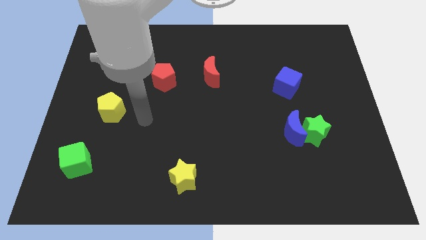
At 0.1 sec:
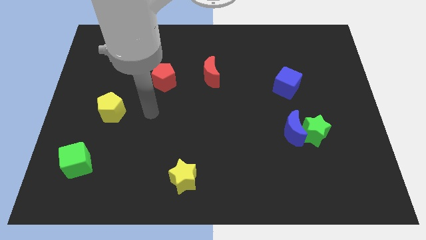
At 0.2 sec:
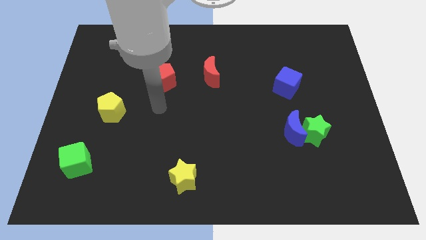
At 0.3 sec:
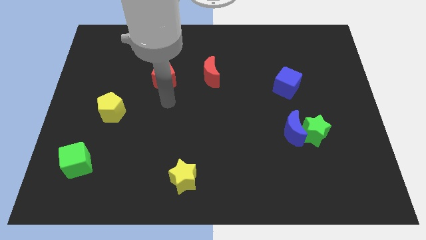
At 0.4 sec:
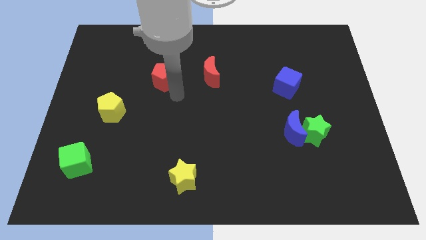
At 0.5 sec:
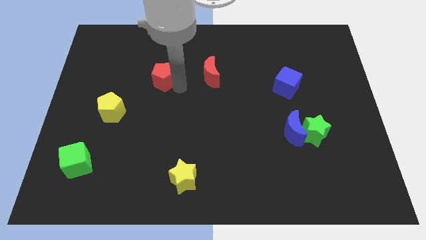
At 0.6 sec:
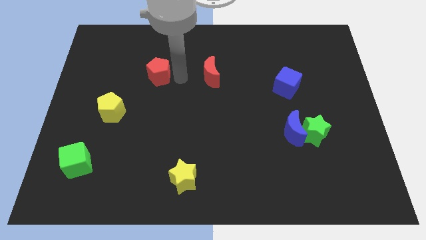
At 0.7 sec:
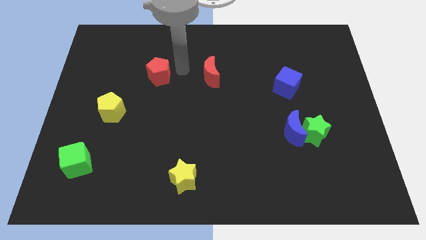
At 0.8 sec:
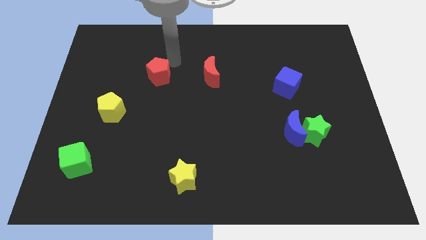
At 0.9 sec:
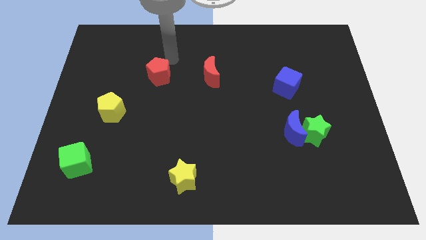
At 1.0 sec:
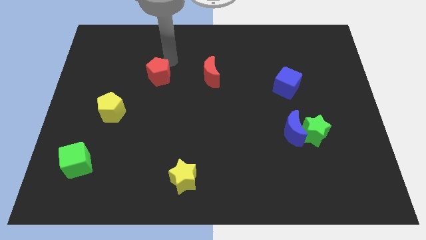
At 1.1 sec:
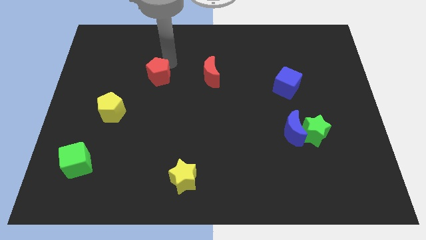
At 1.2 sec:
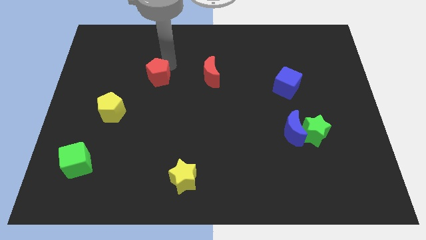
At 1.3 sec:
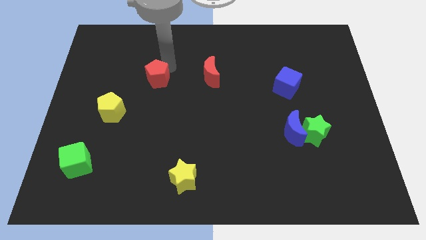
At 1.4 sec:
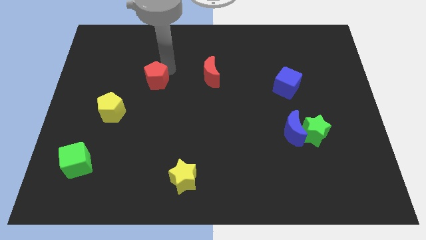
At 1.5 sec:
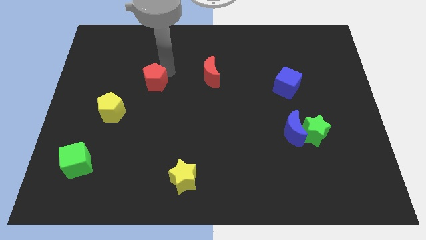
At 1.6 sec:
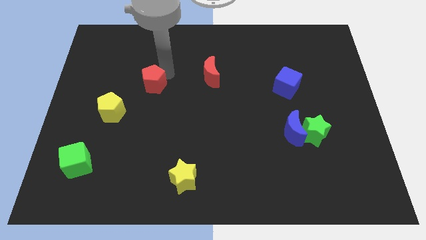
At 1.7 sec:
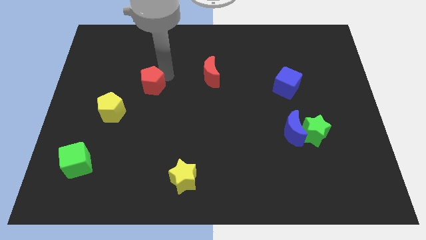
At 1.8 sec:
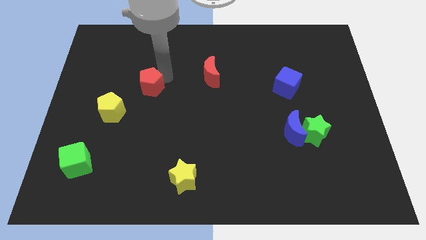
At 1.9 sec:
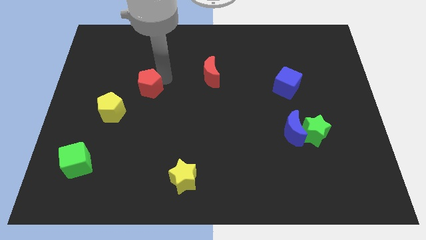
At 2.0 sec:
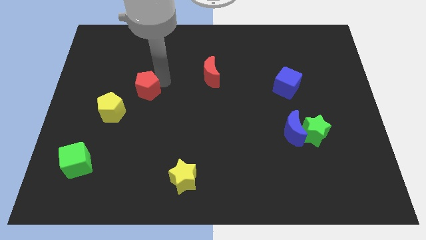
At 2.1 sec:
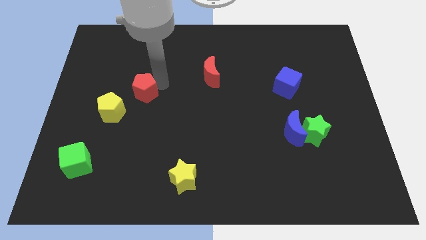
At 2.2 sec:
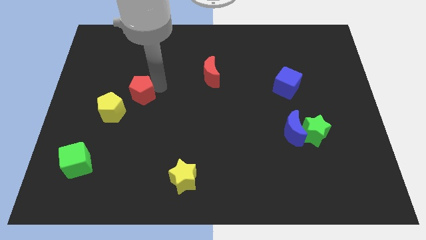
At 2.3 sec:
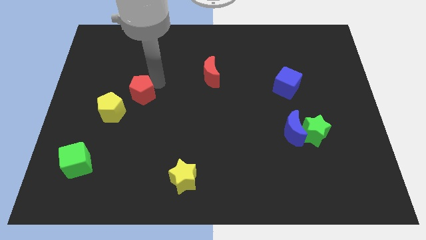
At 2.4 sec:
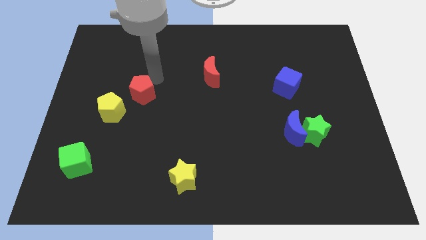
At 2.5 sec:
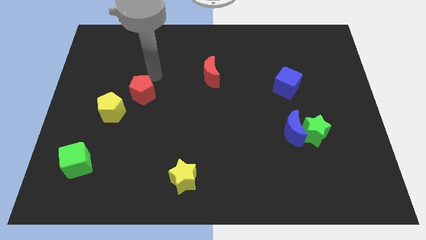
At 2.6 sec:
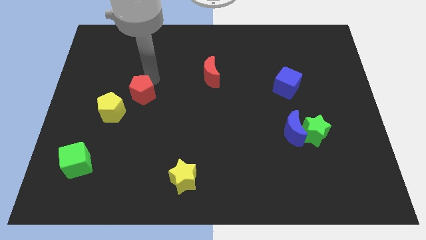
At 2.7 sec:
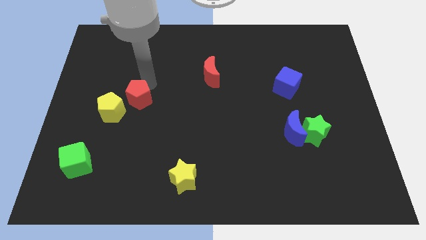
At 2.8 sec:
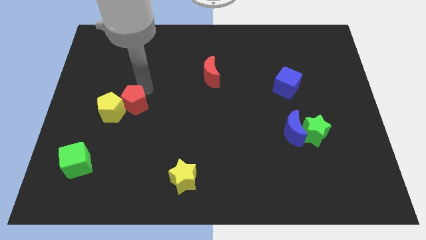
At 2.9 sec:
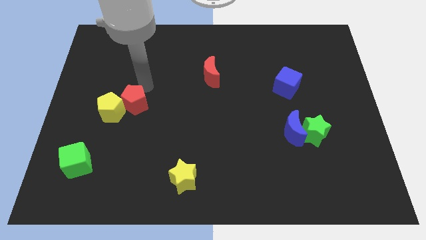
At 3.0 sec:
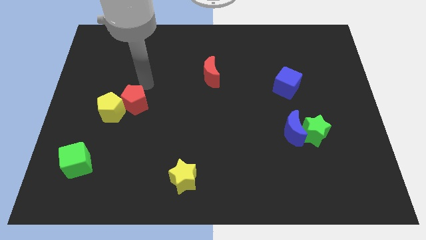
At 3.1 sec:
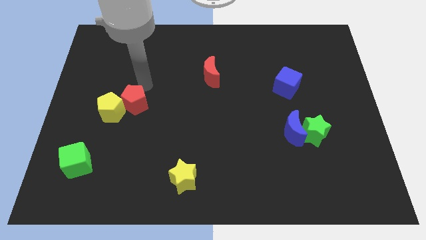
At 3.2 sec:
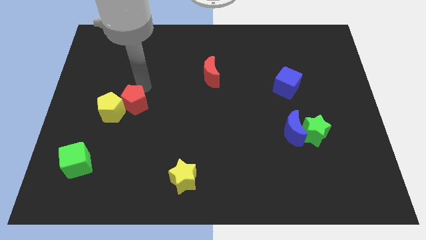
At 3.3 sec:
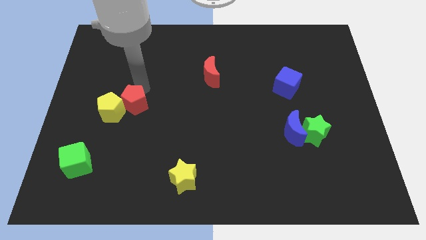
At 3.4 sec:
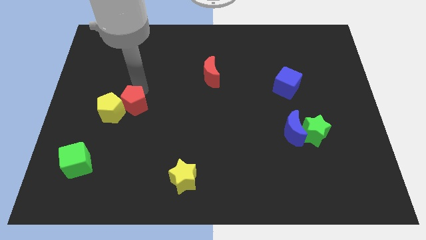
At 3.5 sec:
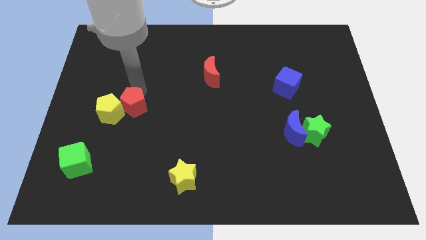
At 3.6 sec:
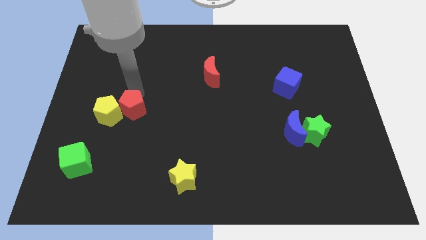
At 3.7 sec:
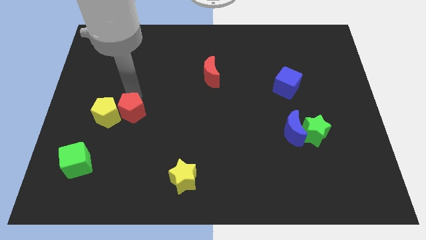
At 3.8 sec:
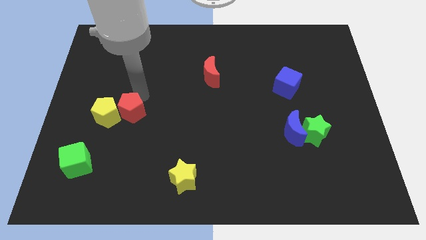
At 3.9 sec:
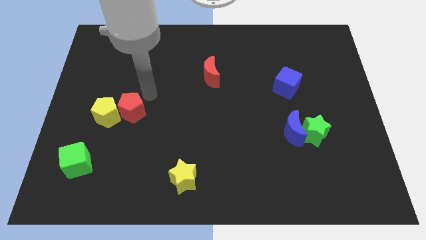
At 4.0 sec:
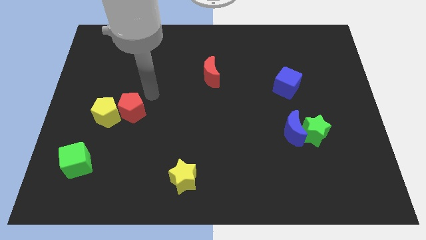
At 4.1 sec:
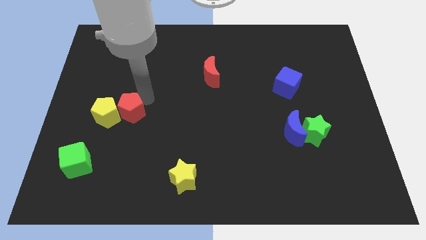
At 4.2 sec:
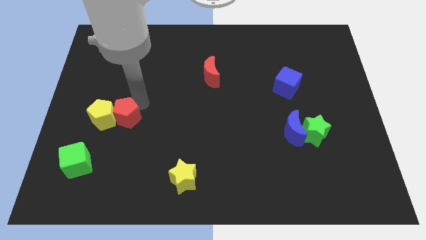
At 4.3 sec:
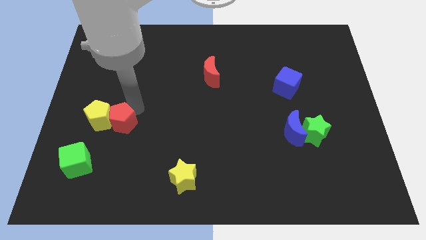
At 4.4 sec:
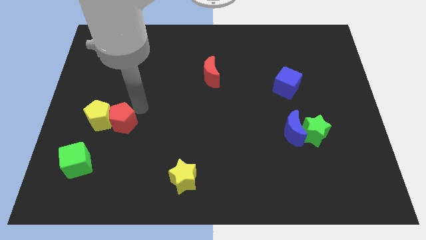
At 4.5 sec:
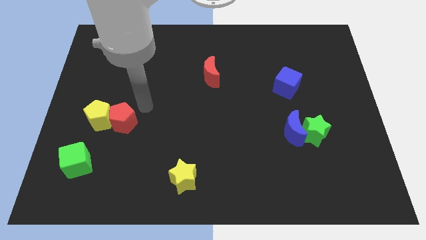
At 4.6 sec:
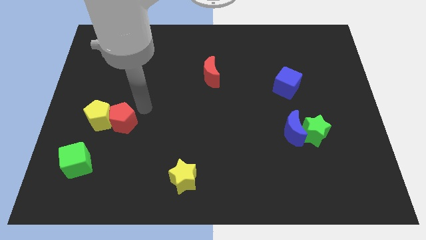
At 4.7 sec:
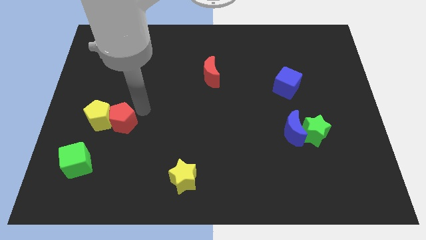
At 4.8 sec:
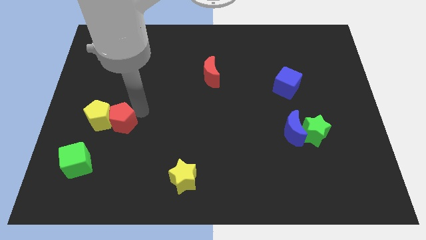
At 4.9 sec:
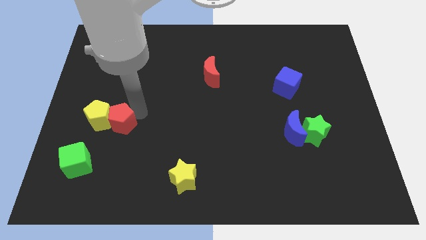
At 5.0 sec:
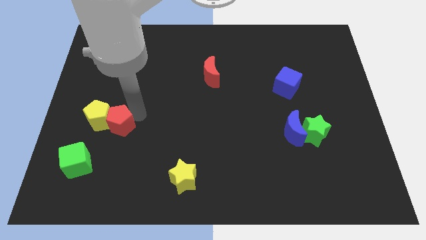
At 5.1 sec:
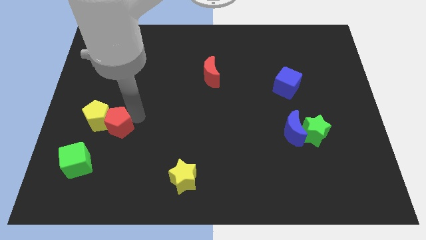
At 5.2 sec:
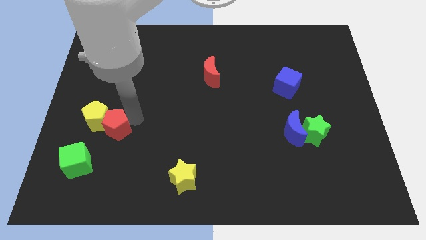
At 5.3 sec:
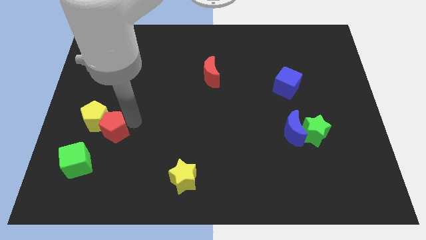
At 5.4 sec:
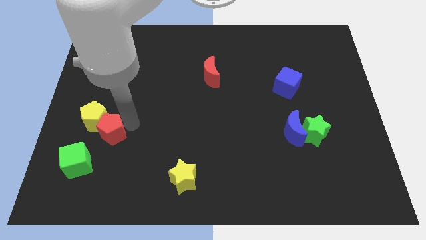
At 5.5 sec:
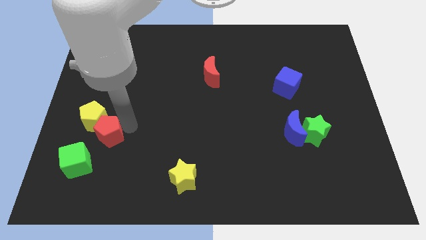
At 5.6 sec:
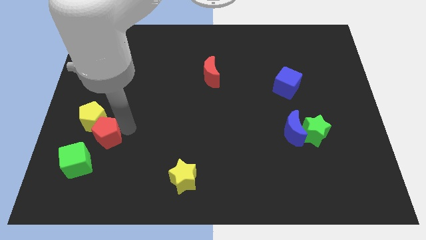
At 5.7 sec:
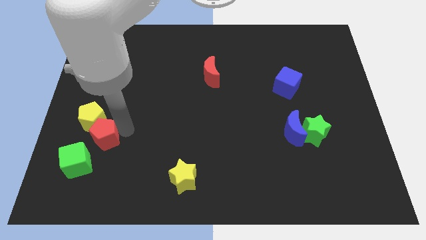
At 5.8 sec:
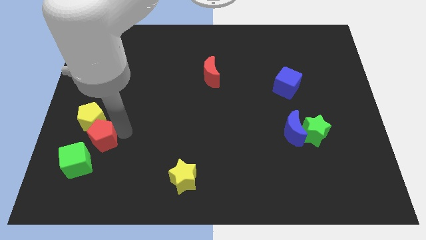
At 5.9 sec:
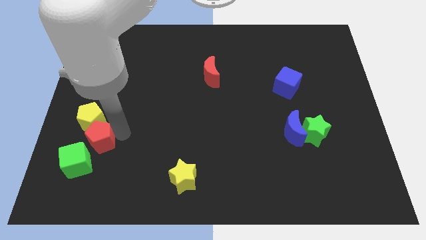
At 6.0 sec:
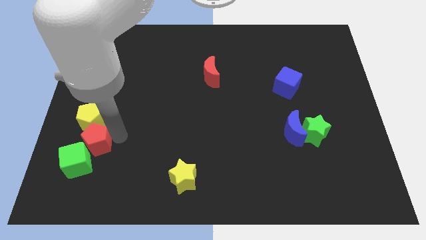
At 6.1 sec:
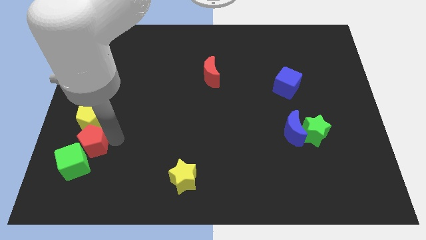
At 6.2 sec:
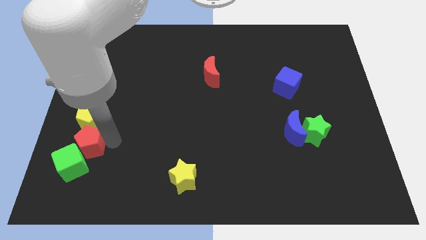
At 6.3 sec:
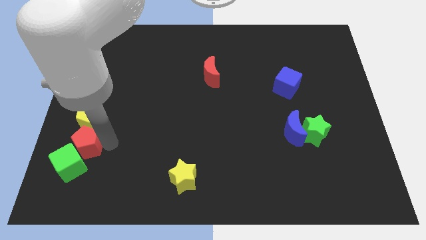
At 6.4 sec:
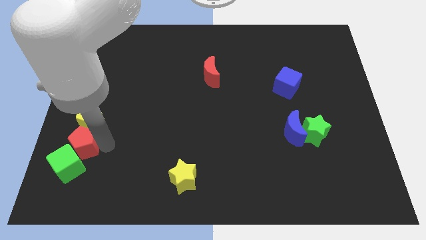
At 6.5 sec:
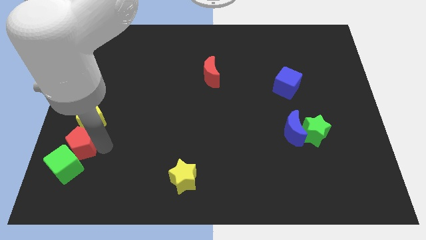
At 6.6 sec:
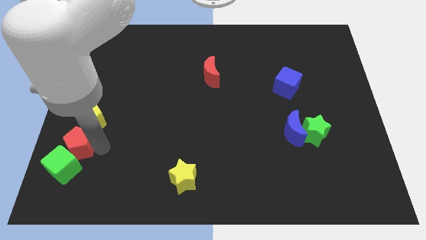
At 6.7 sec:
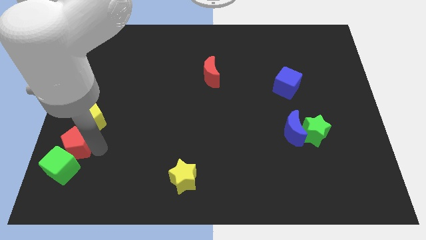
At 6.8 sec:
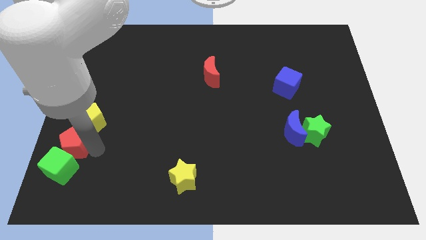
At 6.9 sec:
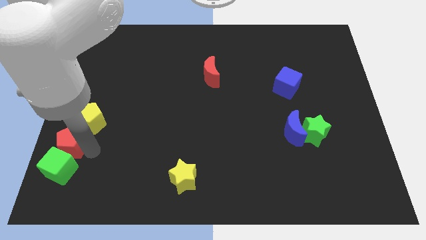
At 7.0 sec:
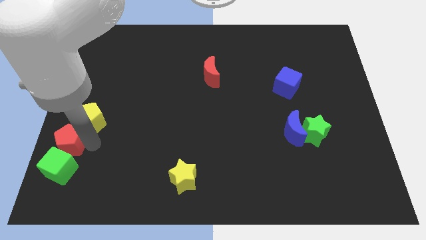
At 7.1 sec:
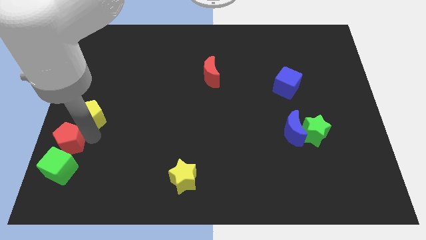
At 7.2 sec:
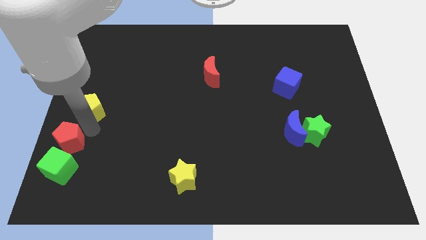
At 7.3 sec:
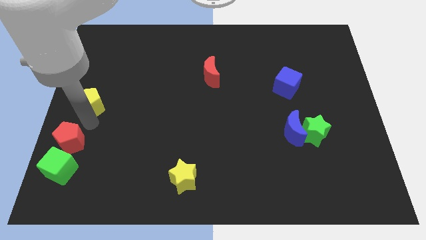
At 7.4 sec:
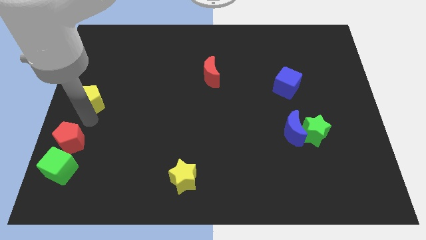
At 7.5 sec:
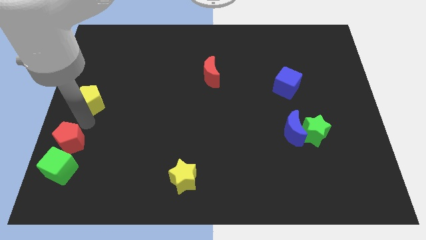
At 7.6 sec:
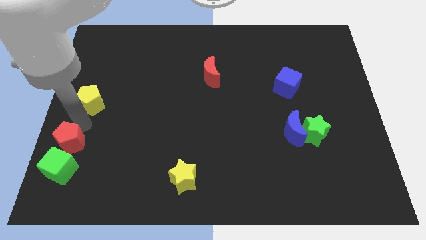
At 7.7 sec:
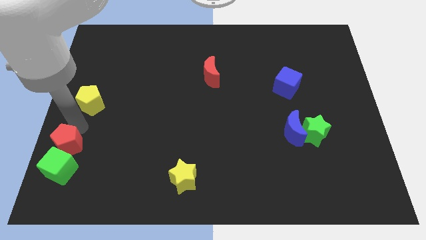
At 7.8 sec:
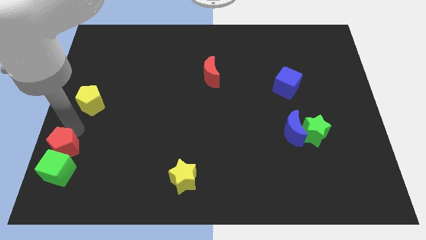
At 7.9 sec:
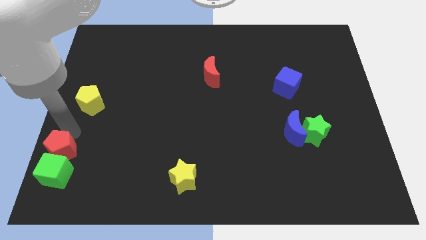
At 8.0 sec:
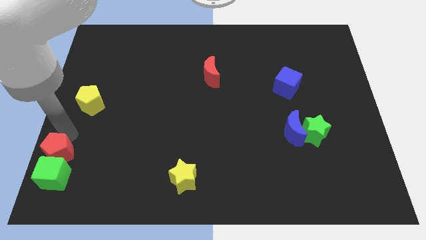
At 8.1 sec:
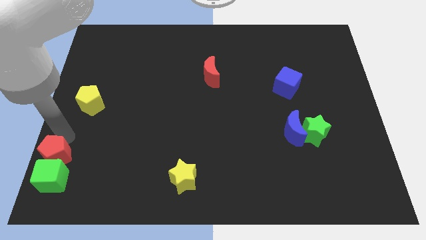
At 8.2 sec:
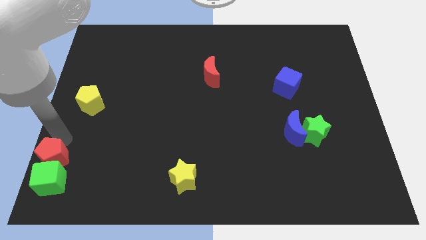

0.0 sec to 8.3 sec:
move the red pentagon to the bottom left
